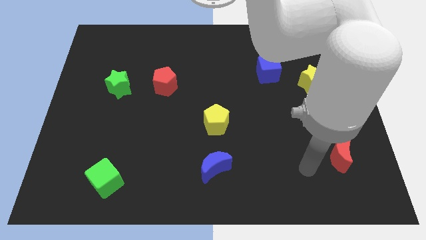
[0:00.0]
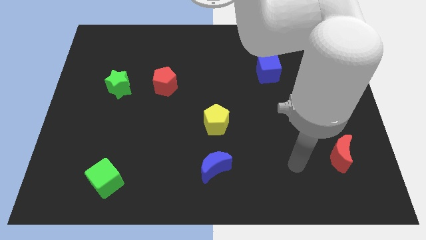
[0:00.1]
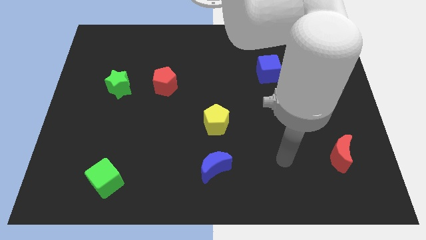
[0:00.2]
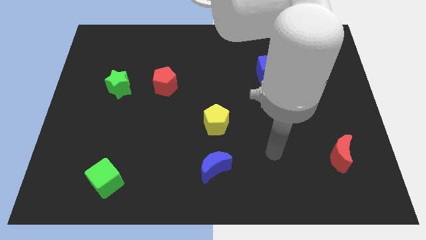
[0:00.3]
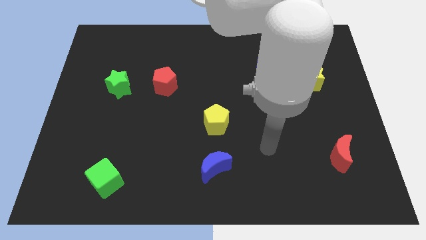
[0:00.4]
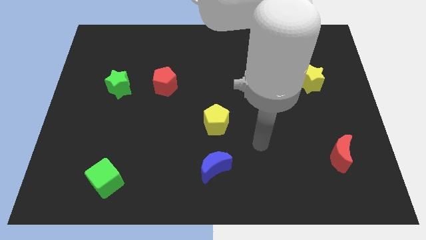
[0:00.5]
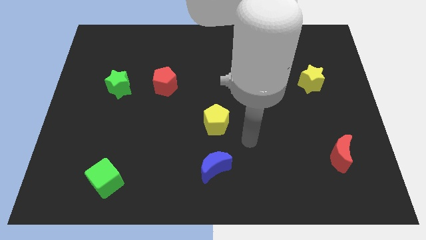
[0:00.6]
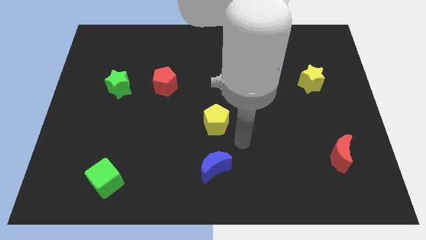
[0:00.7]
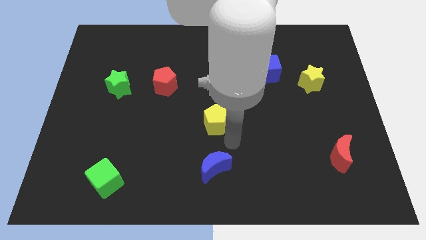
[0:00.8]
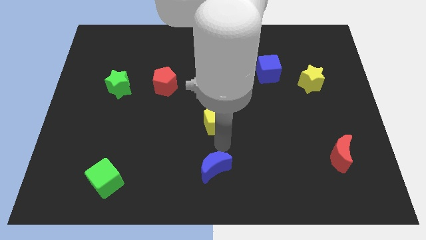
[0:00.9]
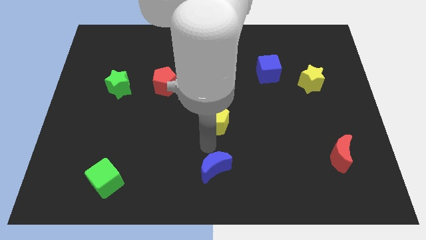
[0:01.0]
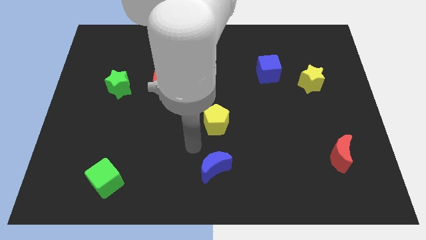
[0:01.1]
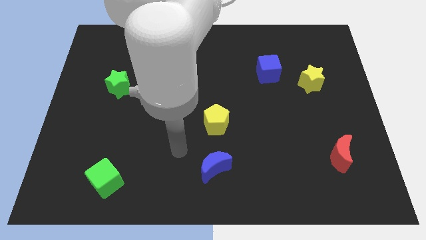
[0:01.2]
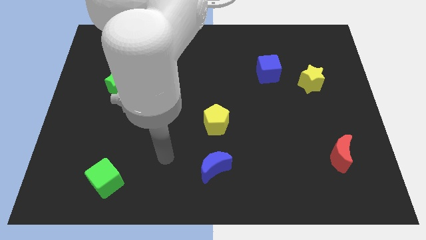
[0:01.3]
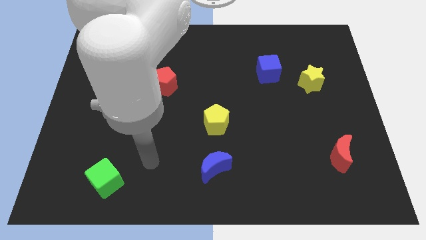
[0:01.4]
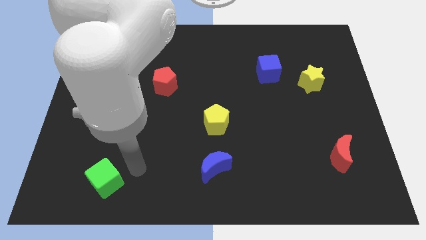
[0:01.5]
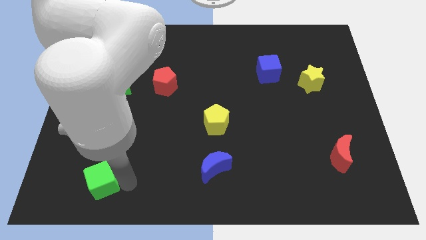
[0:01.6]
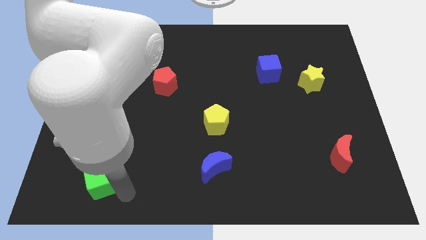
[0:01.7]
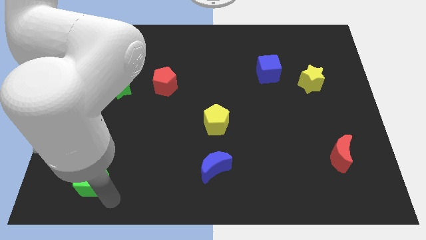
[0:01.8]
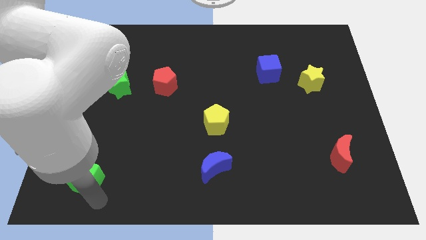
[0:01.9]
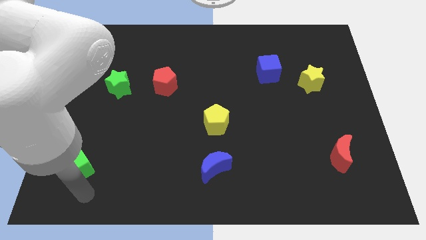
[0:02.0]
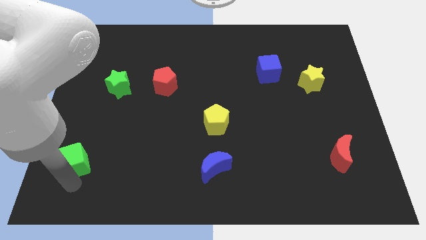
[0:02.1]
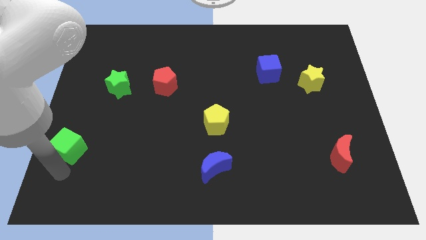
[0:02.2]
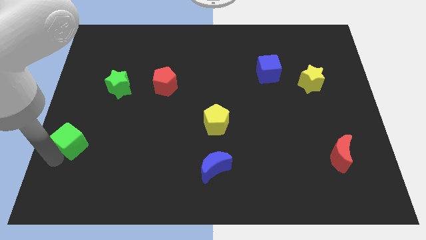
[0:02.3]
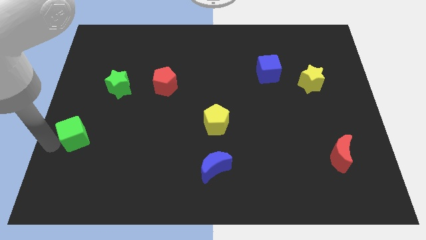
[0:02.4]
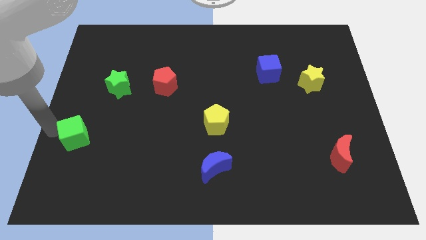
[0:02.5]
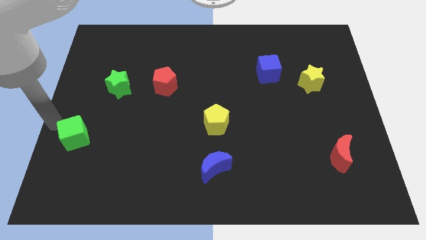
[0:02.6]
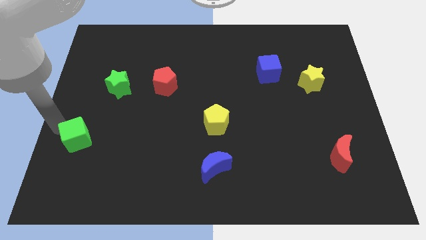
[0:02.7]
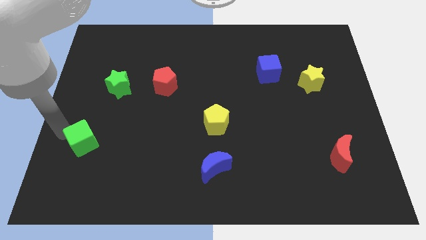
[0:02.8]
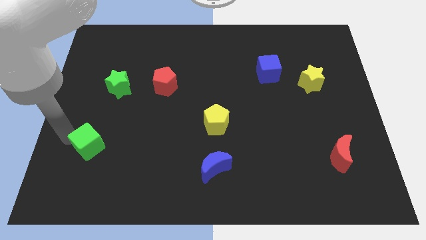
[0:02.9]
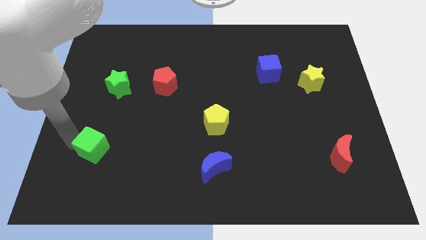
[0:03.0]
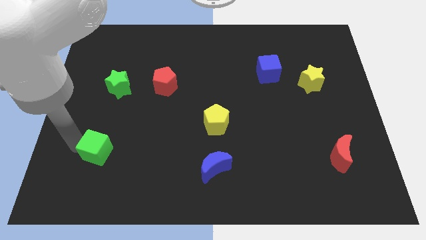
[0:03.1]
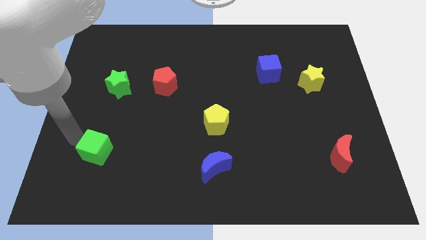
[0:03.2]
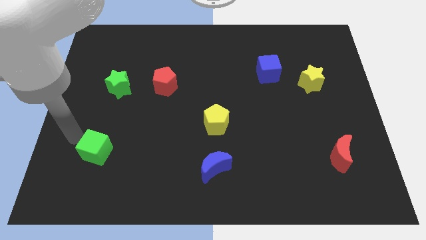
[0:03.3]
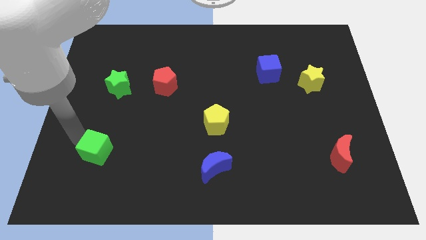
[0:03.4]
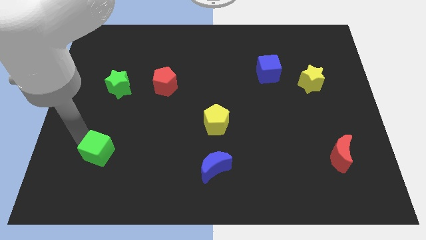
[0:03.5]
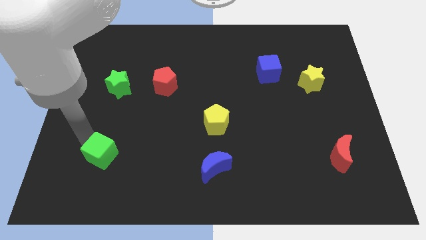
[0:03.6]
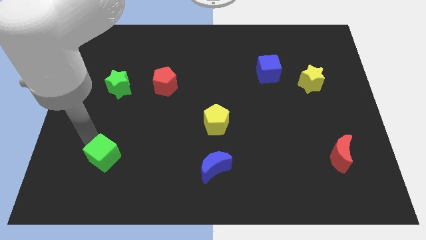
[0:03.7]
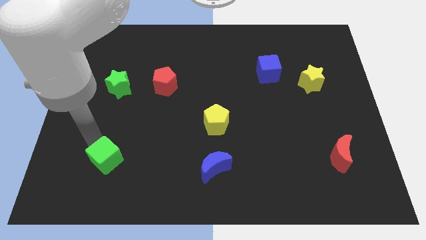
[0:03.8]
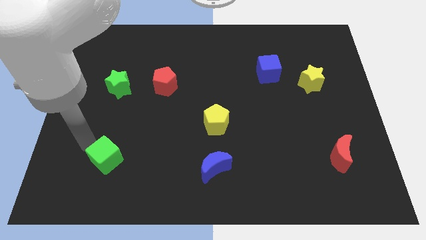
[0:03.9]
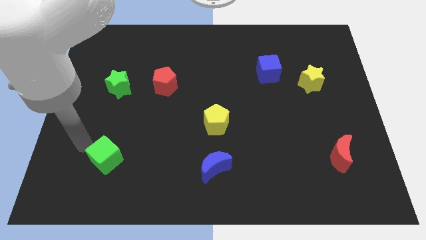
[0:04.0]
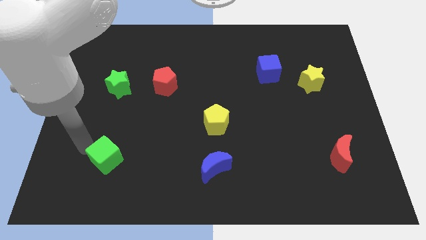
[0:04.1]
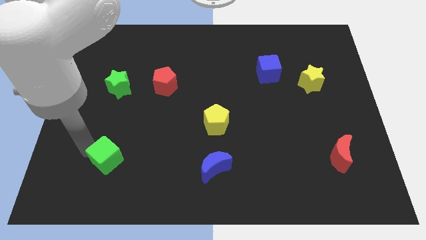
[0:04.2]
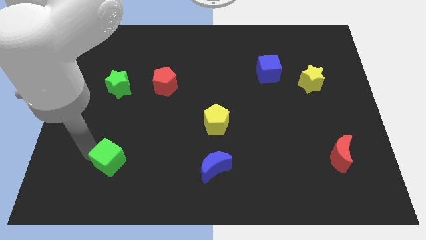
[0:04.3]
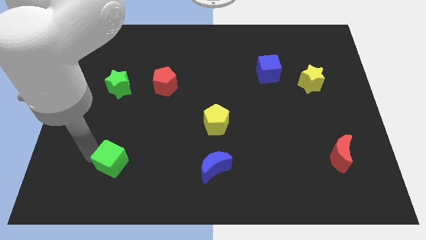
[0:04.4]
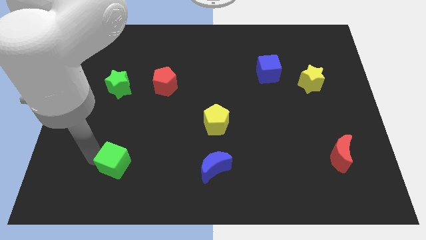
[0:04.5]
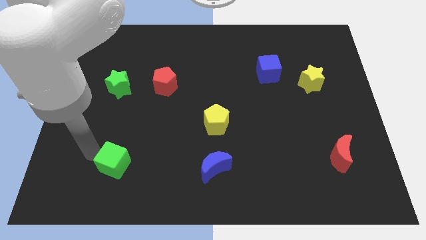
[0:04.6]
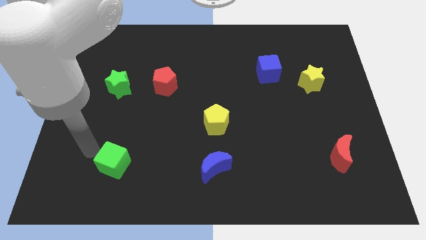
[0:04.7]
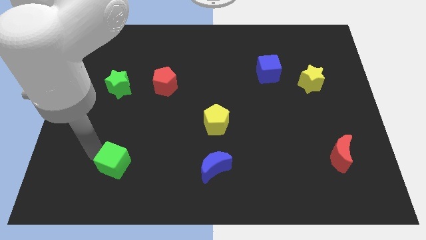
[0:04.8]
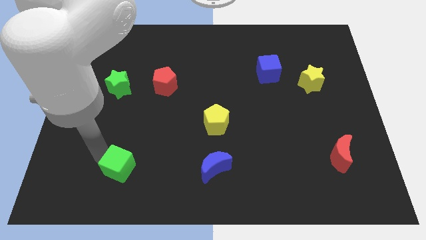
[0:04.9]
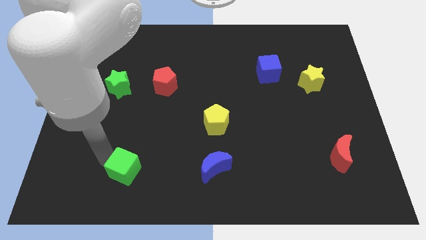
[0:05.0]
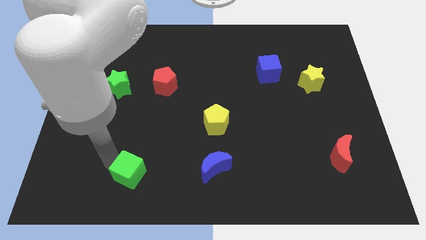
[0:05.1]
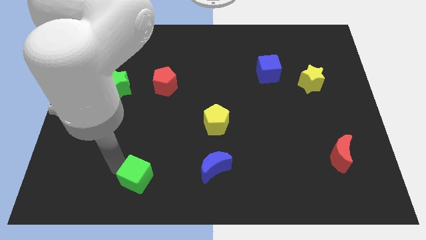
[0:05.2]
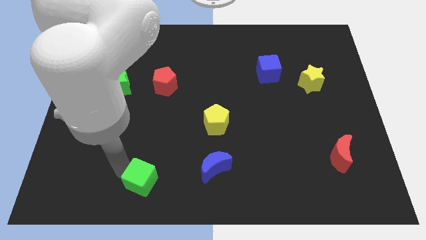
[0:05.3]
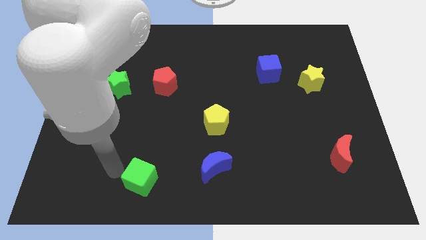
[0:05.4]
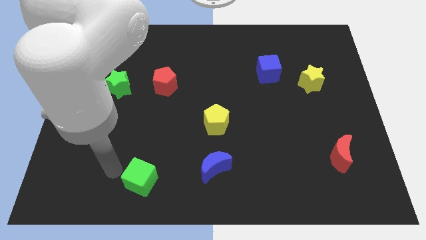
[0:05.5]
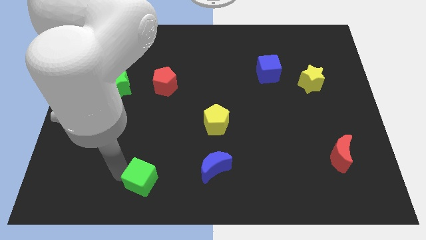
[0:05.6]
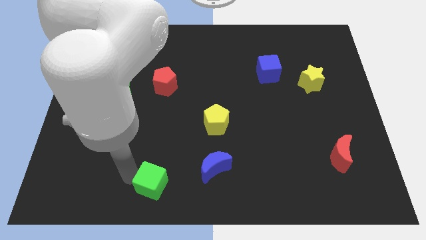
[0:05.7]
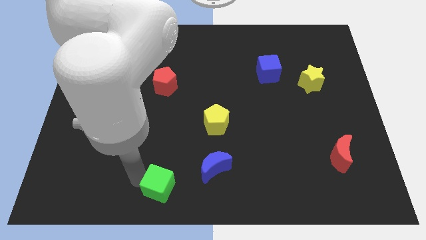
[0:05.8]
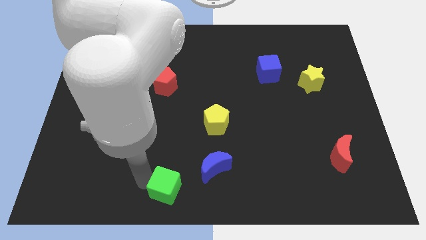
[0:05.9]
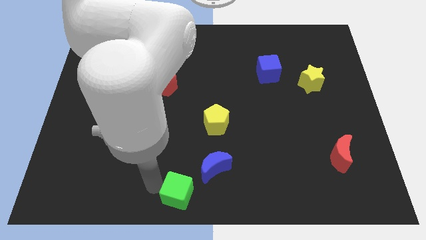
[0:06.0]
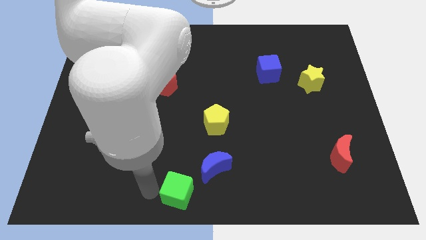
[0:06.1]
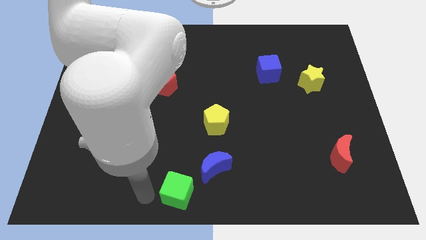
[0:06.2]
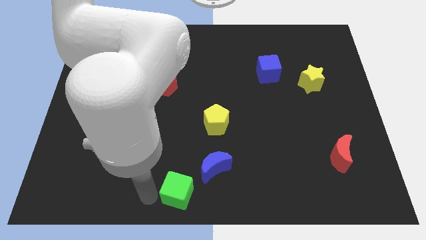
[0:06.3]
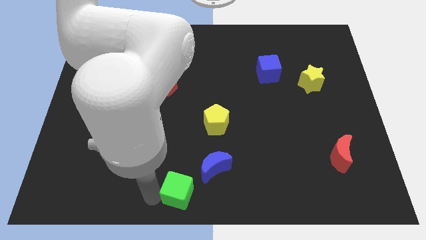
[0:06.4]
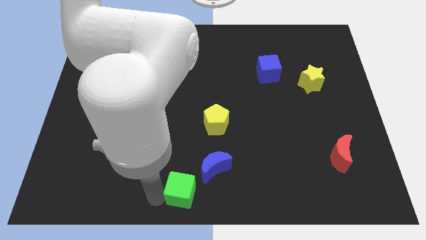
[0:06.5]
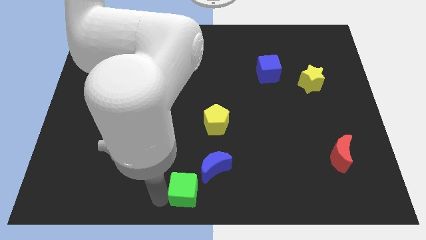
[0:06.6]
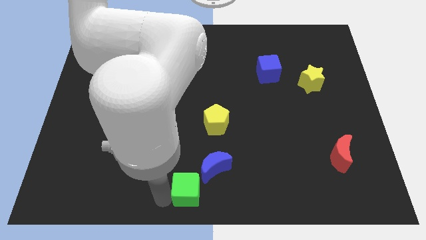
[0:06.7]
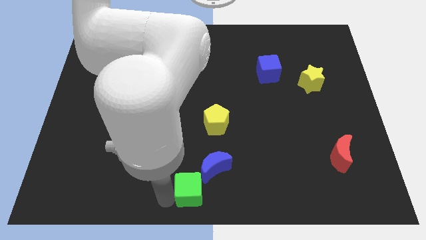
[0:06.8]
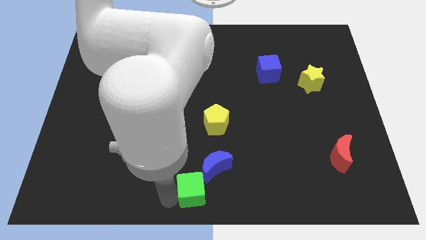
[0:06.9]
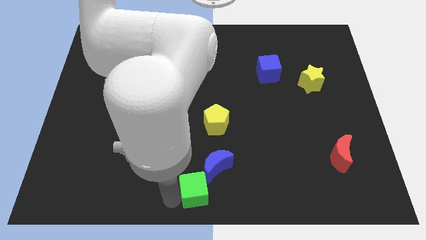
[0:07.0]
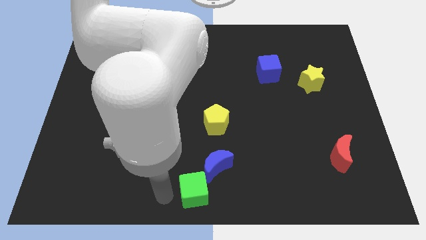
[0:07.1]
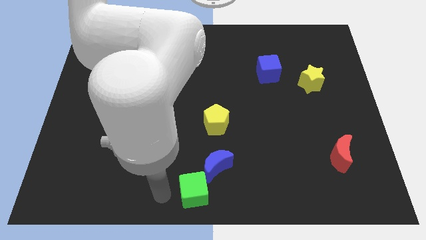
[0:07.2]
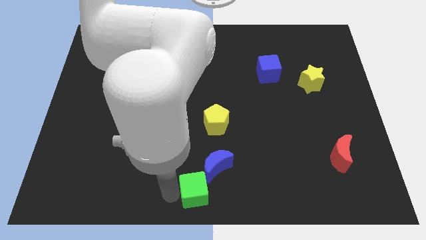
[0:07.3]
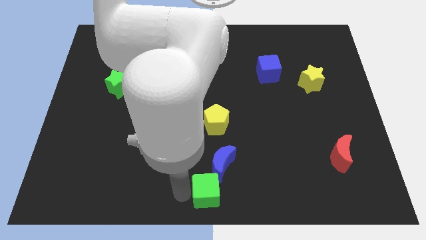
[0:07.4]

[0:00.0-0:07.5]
push the green cube to the right
